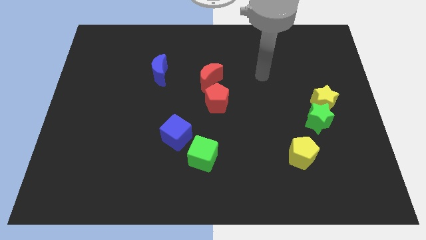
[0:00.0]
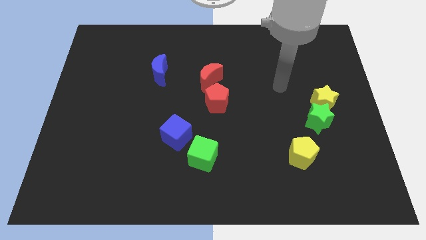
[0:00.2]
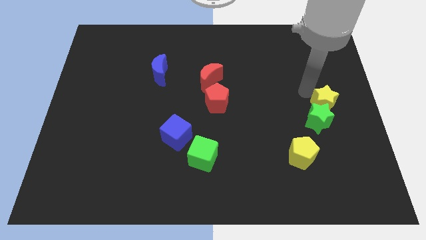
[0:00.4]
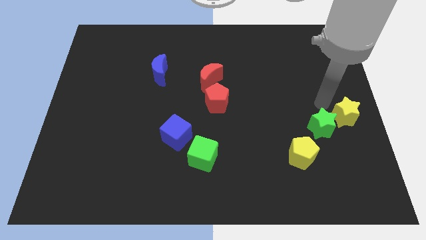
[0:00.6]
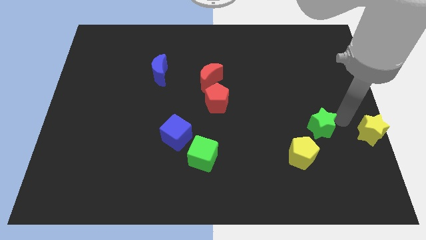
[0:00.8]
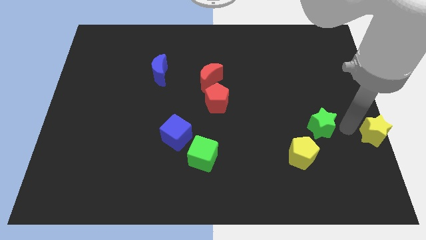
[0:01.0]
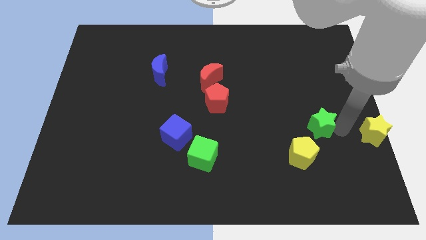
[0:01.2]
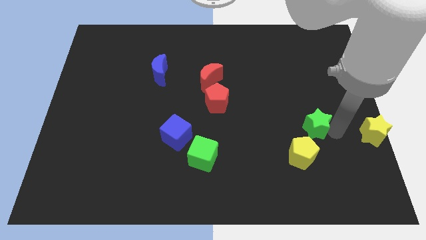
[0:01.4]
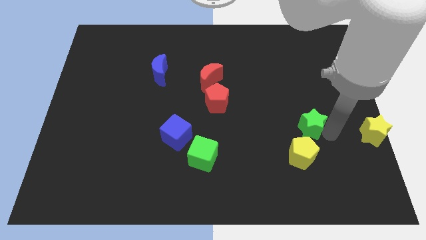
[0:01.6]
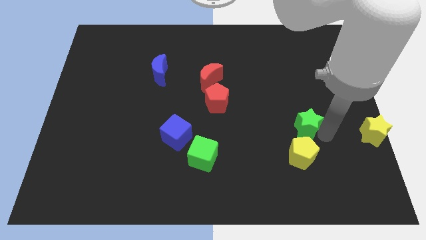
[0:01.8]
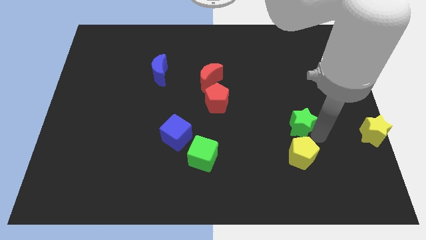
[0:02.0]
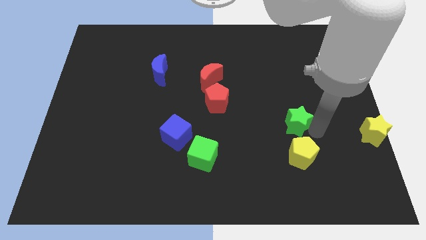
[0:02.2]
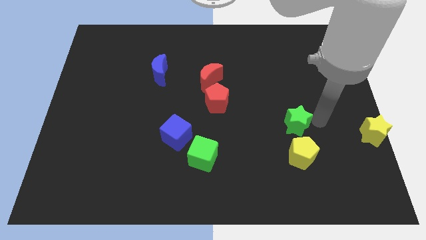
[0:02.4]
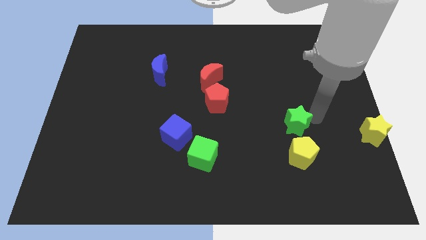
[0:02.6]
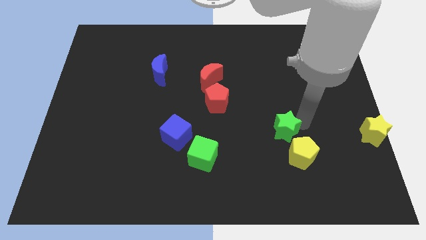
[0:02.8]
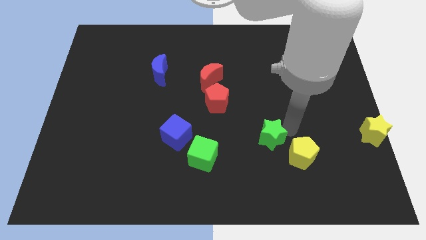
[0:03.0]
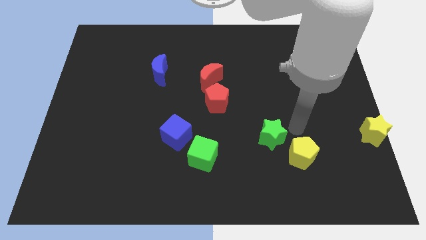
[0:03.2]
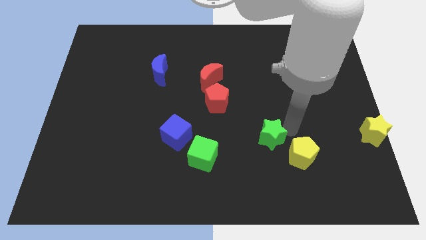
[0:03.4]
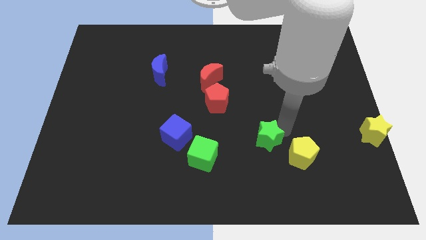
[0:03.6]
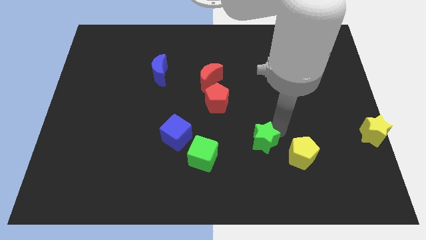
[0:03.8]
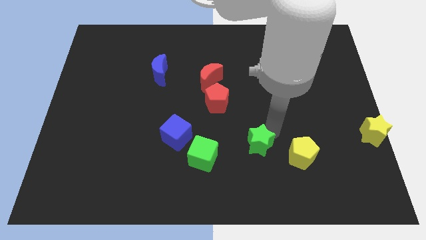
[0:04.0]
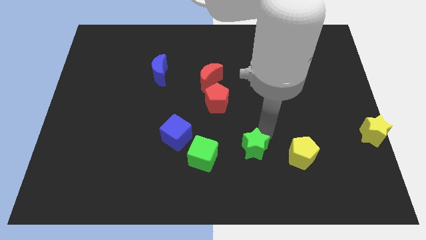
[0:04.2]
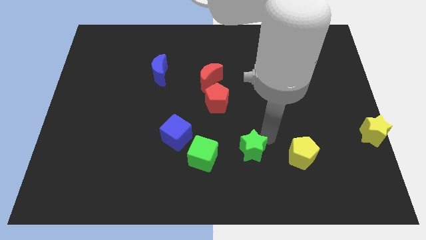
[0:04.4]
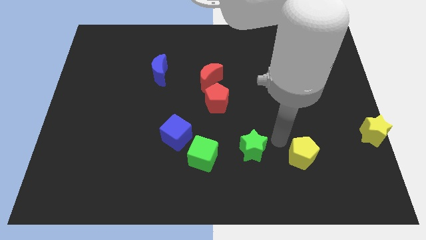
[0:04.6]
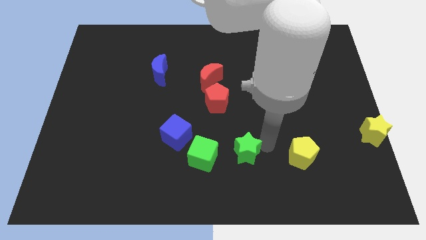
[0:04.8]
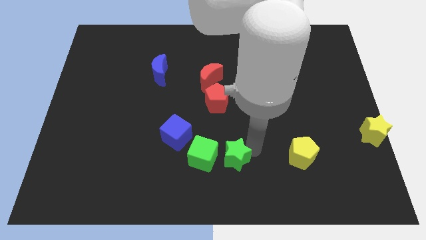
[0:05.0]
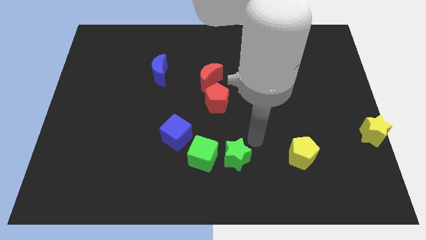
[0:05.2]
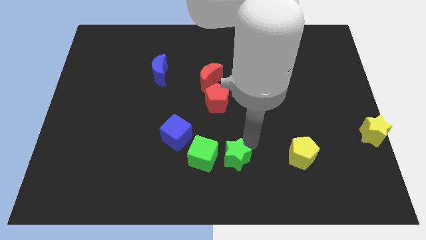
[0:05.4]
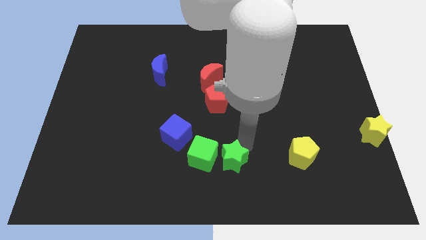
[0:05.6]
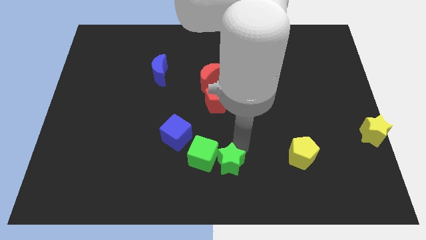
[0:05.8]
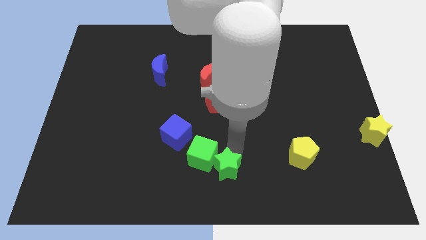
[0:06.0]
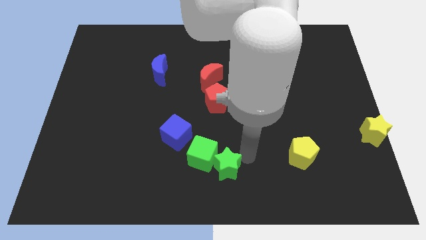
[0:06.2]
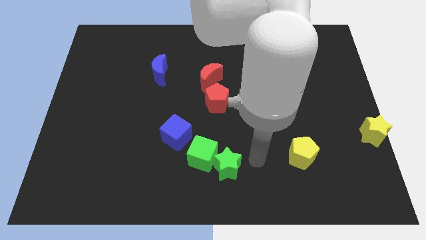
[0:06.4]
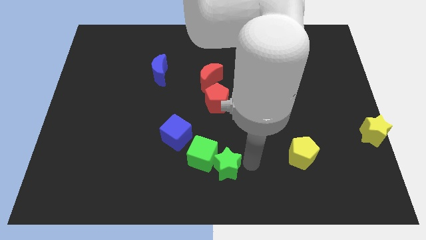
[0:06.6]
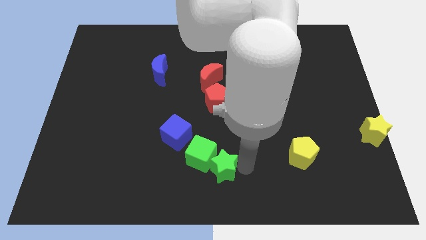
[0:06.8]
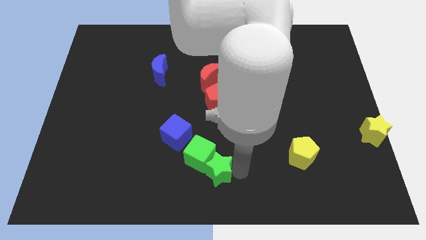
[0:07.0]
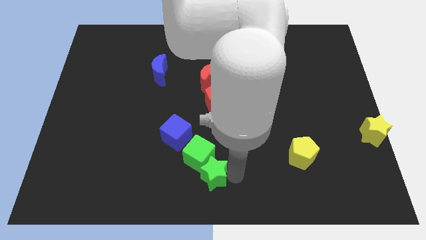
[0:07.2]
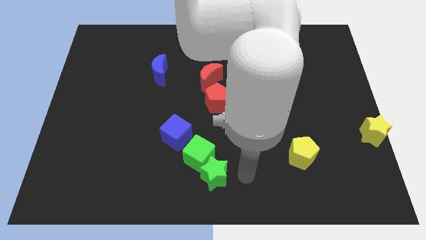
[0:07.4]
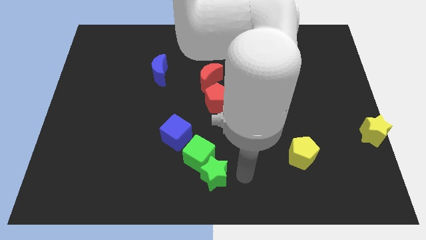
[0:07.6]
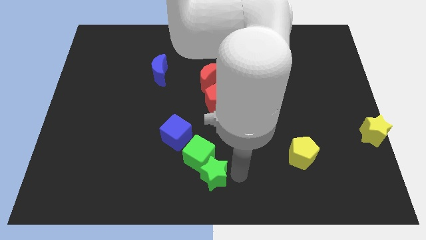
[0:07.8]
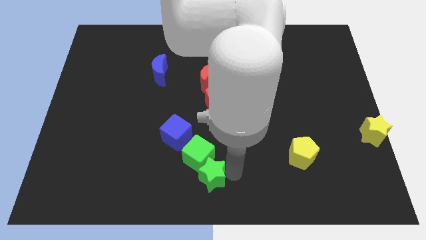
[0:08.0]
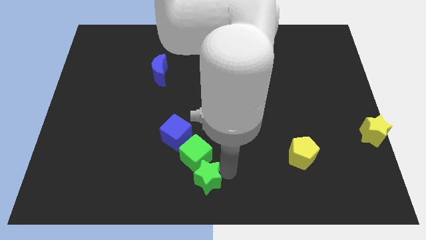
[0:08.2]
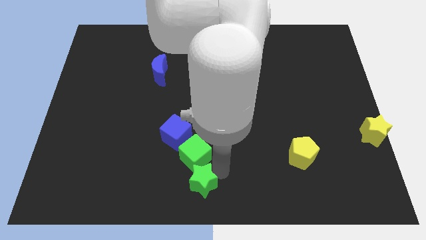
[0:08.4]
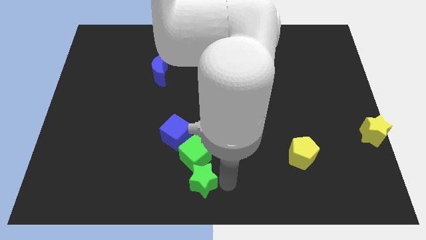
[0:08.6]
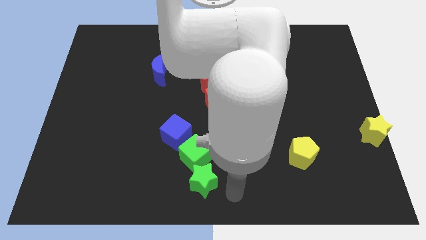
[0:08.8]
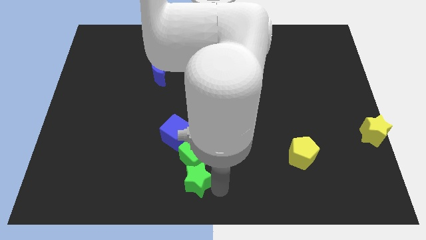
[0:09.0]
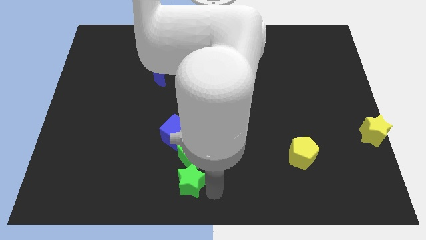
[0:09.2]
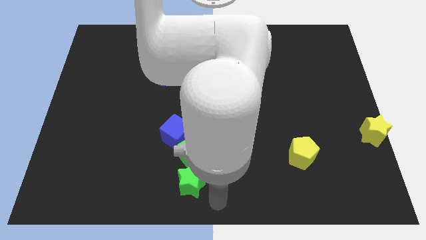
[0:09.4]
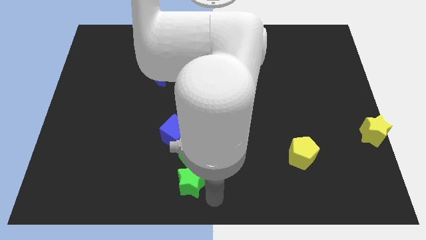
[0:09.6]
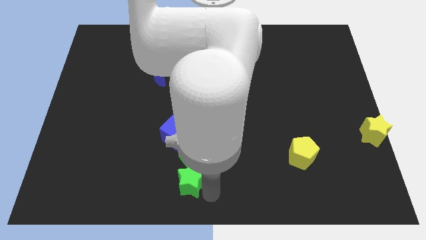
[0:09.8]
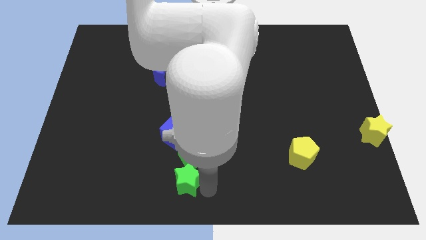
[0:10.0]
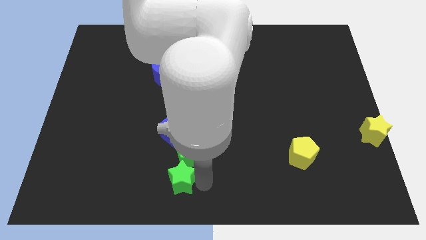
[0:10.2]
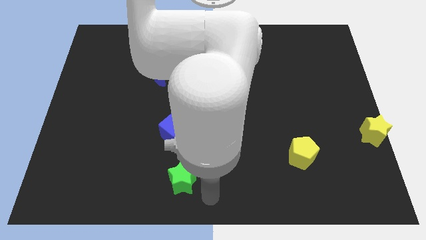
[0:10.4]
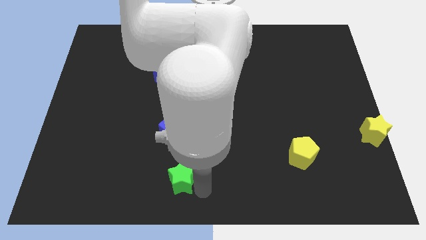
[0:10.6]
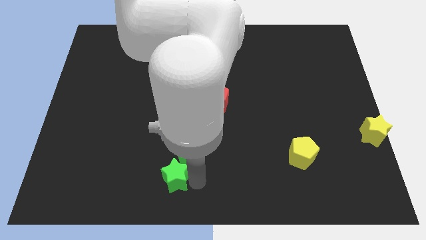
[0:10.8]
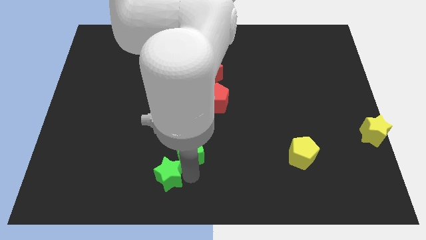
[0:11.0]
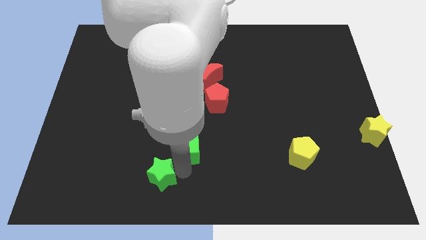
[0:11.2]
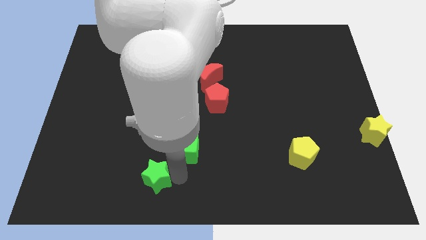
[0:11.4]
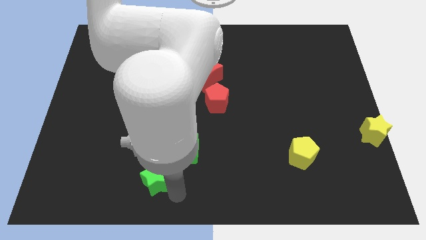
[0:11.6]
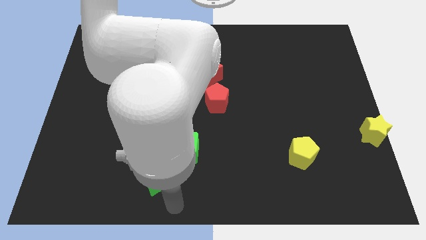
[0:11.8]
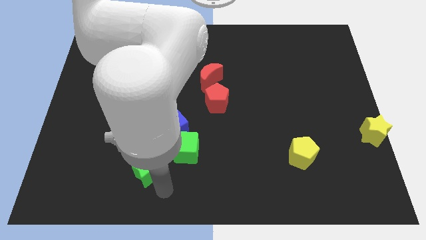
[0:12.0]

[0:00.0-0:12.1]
move the green star just left of the green cube

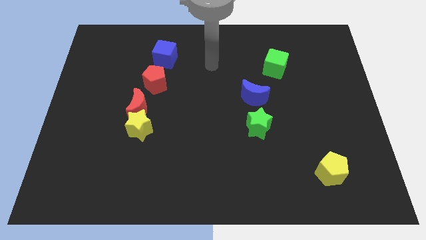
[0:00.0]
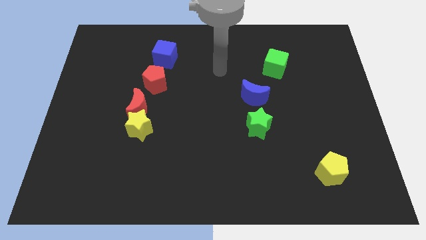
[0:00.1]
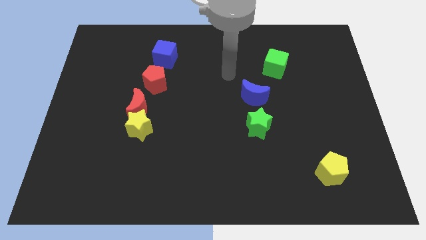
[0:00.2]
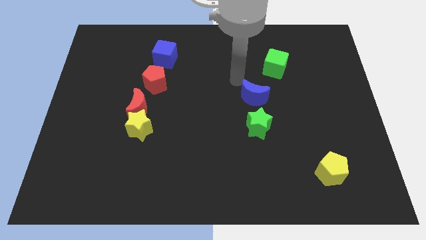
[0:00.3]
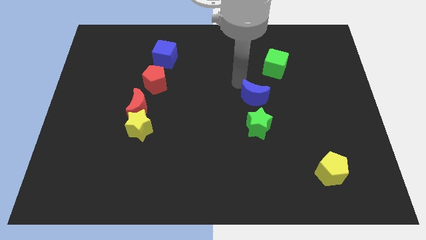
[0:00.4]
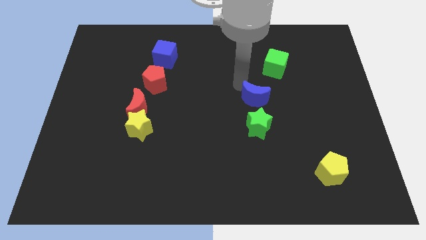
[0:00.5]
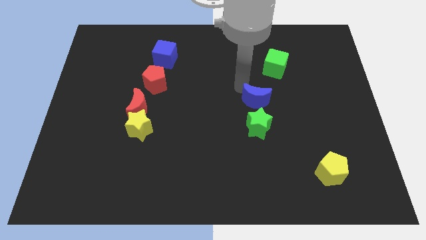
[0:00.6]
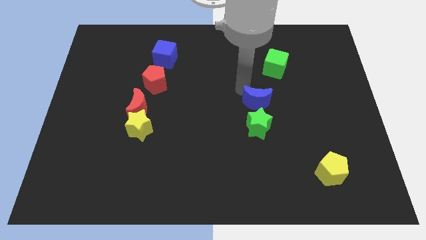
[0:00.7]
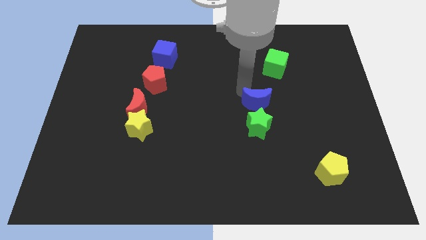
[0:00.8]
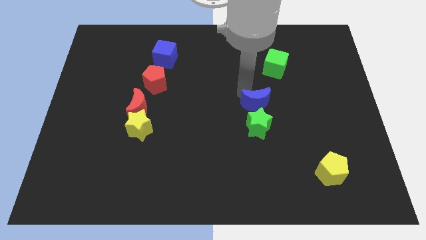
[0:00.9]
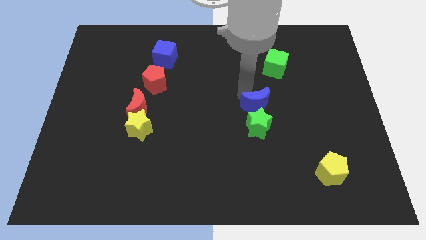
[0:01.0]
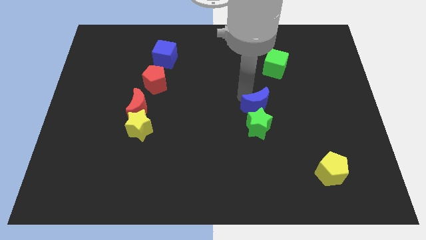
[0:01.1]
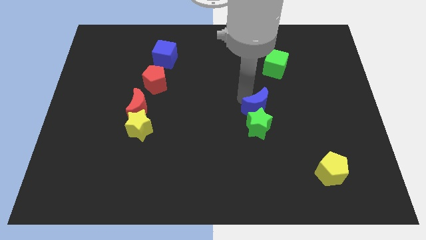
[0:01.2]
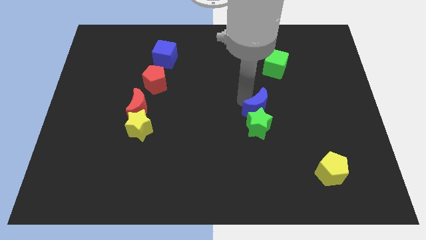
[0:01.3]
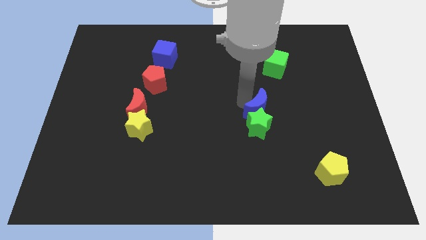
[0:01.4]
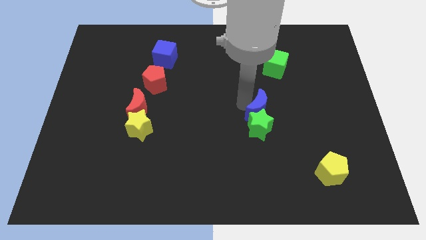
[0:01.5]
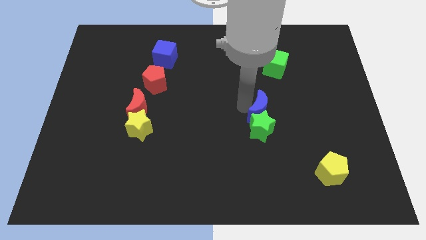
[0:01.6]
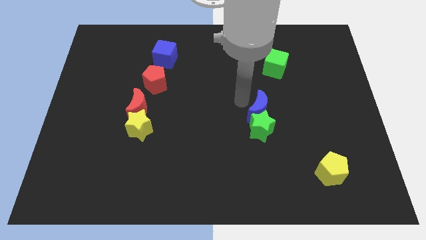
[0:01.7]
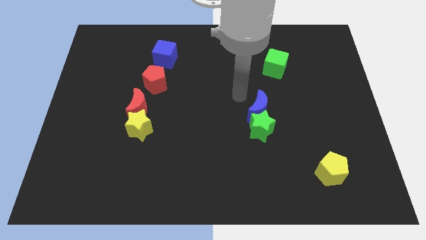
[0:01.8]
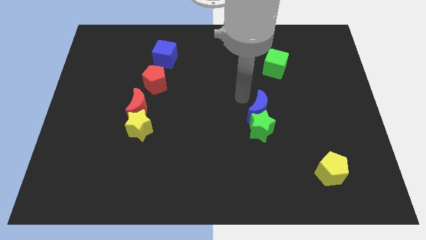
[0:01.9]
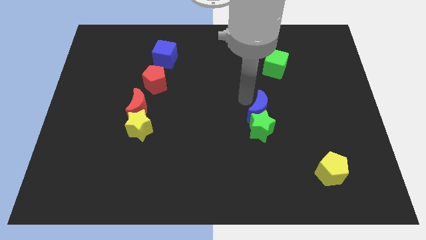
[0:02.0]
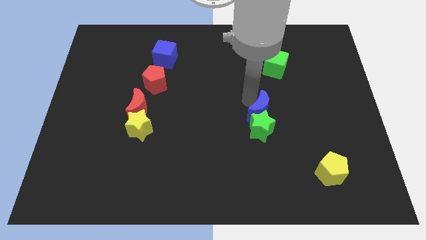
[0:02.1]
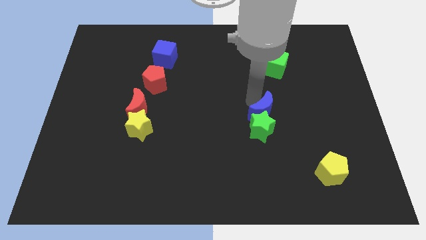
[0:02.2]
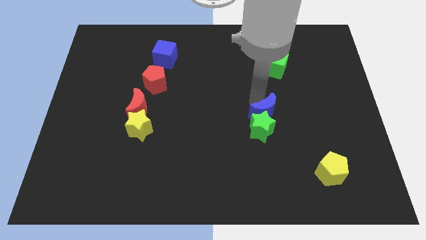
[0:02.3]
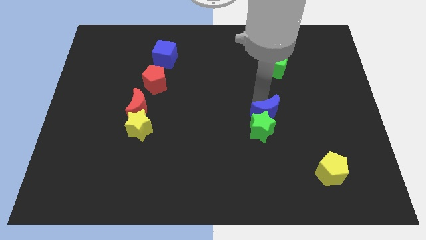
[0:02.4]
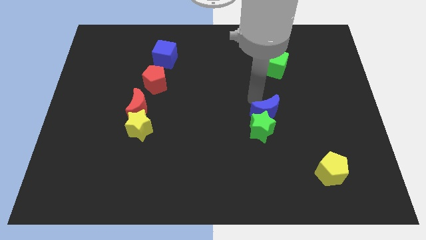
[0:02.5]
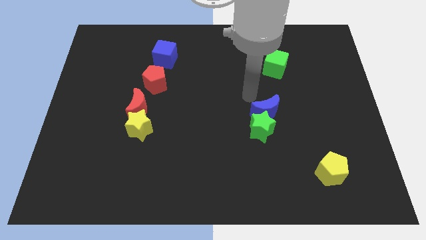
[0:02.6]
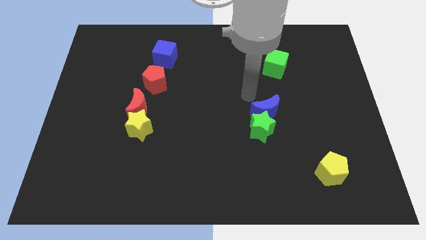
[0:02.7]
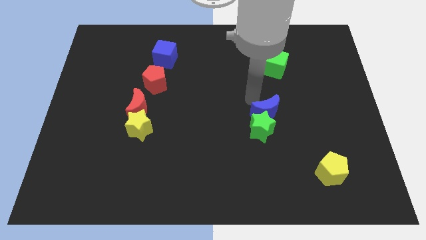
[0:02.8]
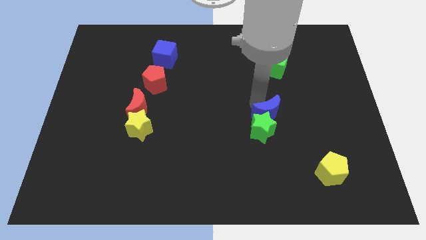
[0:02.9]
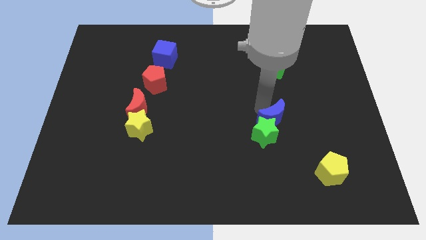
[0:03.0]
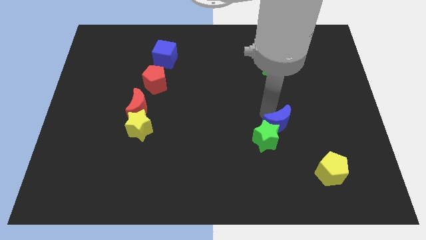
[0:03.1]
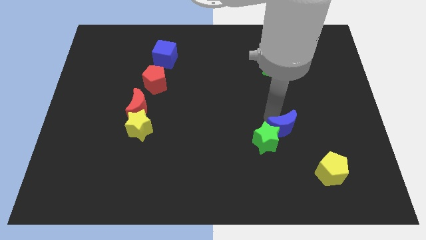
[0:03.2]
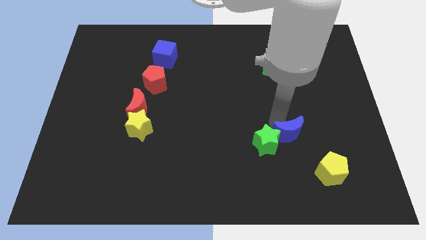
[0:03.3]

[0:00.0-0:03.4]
push the blue moon to the top left of the yellow pentagon
